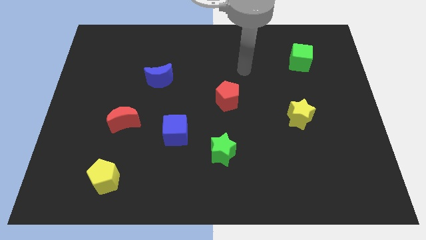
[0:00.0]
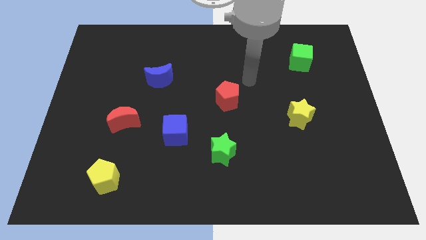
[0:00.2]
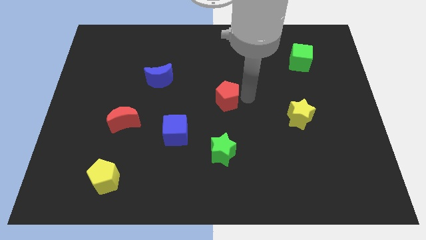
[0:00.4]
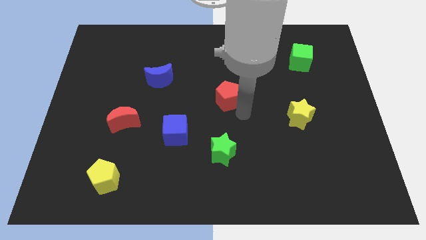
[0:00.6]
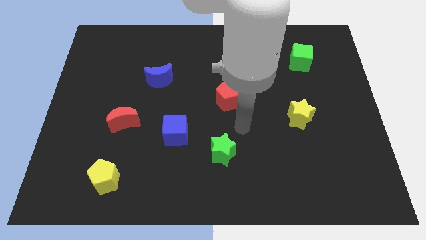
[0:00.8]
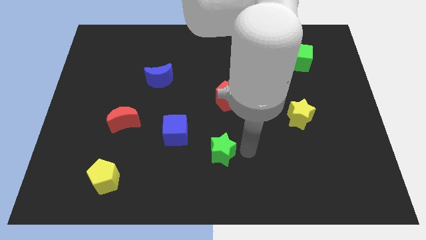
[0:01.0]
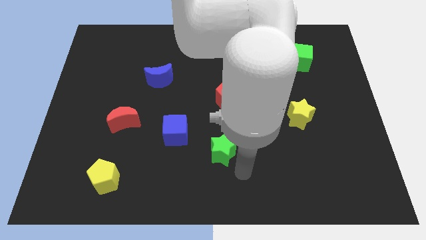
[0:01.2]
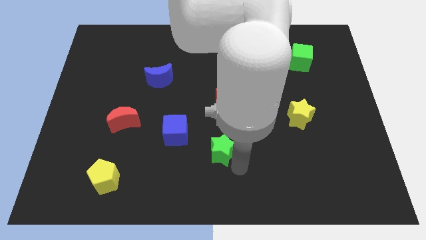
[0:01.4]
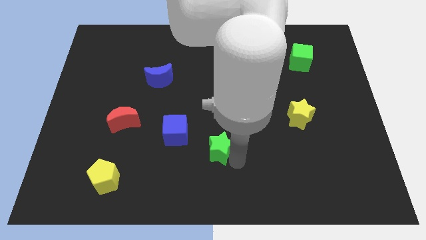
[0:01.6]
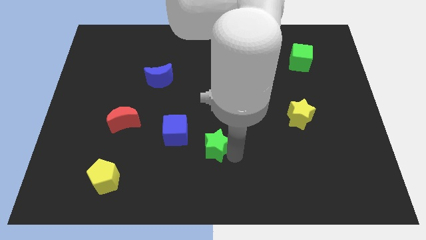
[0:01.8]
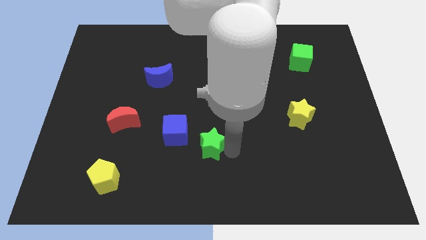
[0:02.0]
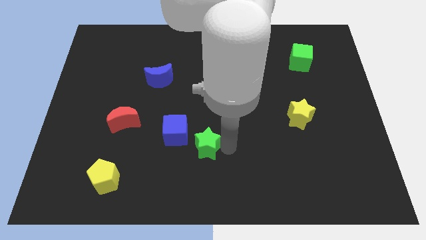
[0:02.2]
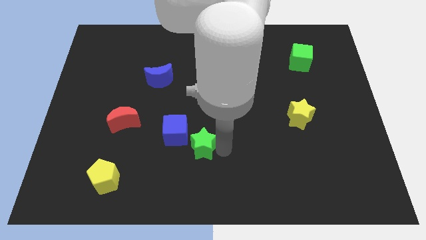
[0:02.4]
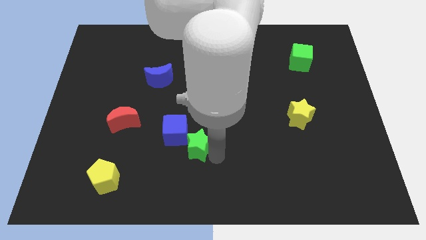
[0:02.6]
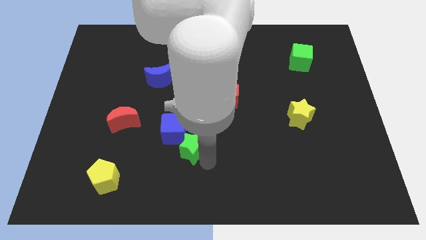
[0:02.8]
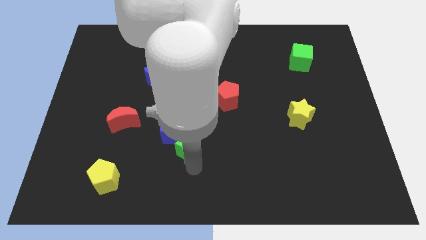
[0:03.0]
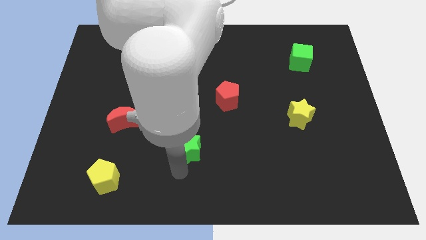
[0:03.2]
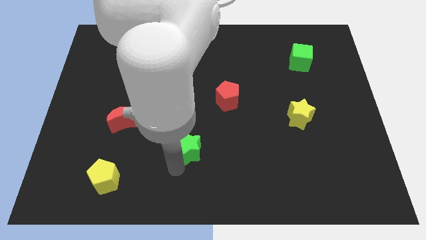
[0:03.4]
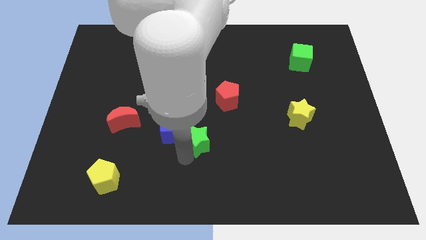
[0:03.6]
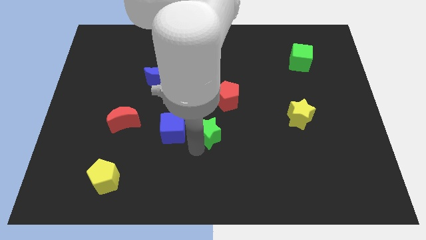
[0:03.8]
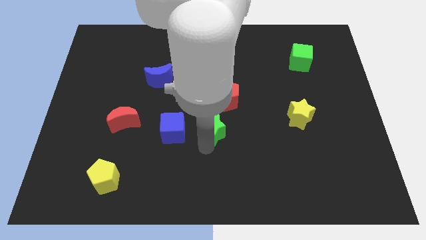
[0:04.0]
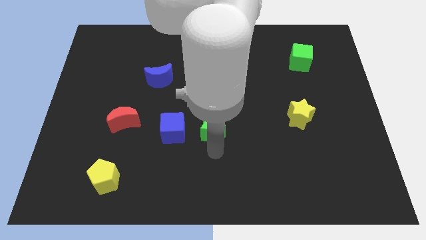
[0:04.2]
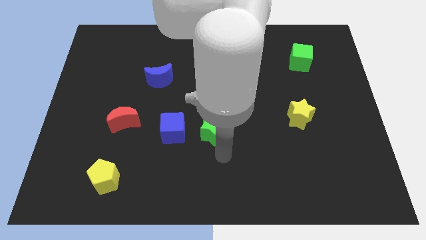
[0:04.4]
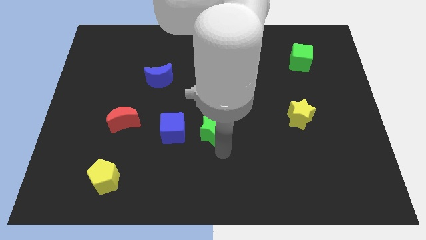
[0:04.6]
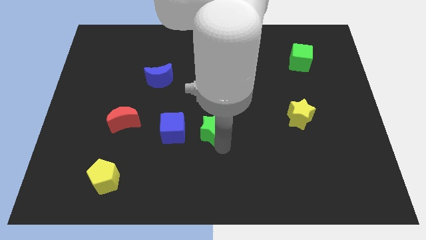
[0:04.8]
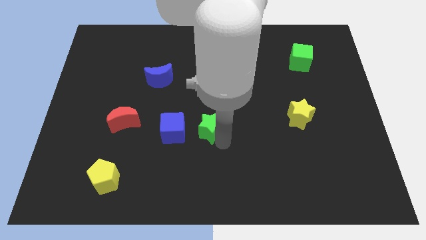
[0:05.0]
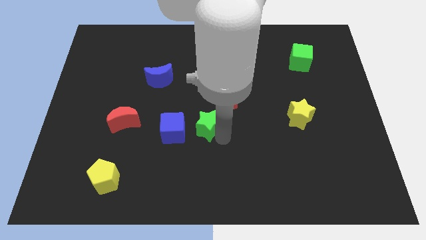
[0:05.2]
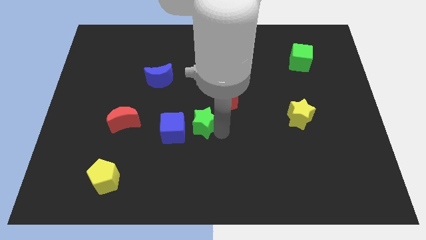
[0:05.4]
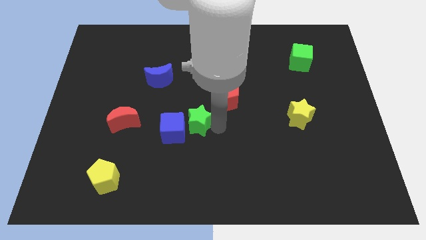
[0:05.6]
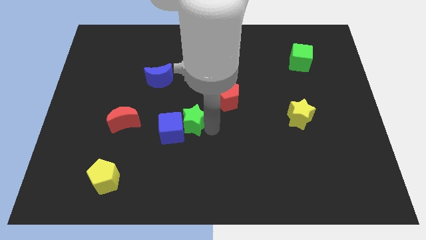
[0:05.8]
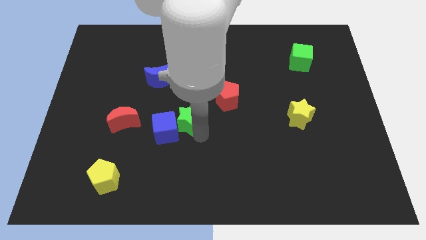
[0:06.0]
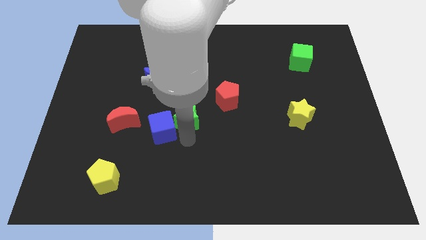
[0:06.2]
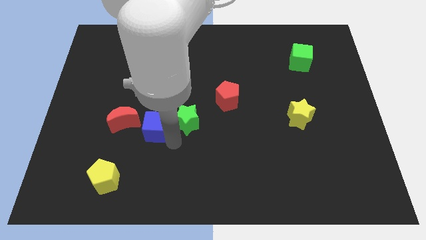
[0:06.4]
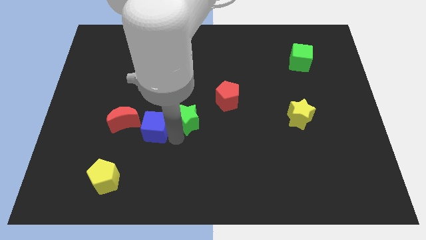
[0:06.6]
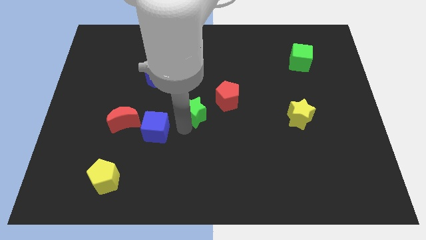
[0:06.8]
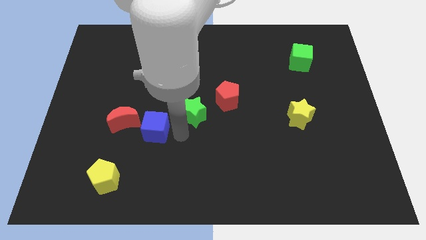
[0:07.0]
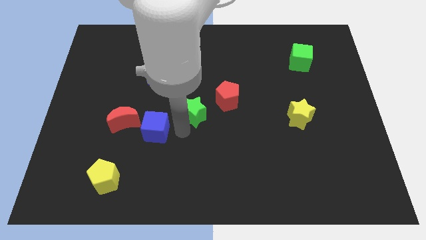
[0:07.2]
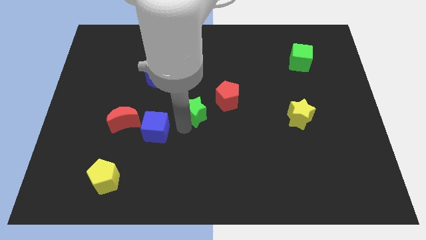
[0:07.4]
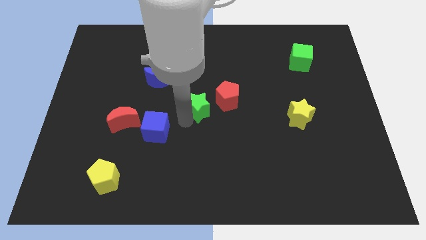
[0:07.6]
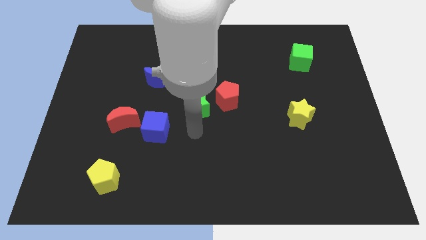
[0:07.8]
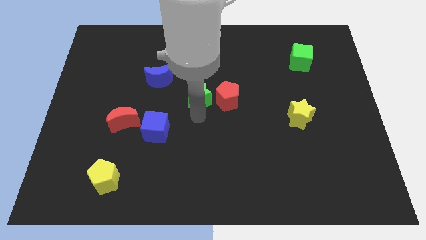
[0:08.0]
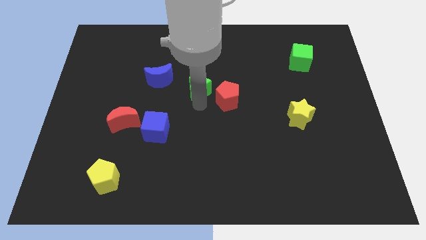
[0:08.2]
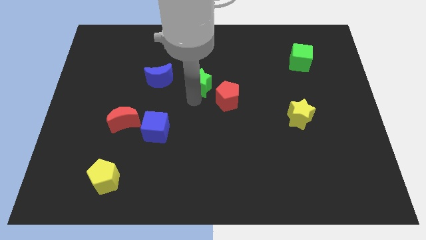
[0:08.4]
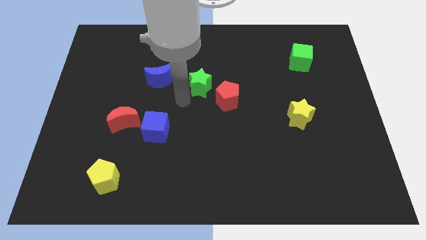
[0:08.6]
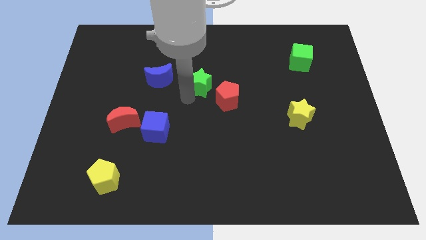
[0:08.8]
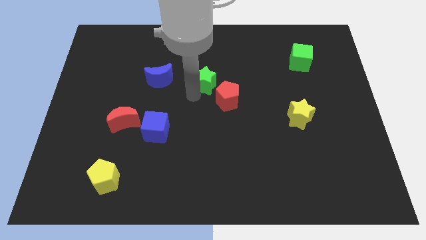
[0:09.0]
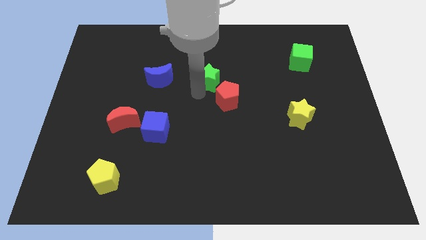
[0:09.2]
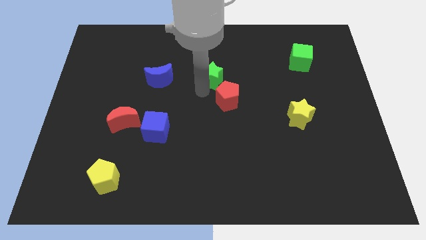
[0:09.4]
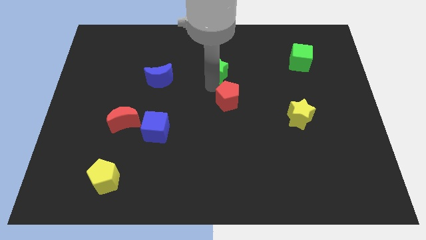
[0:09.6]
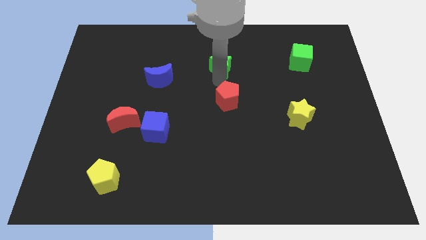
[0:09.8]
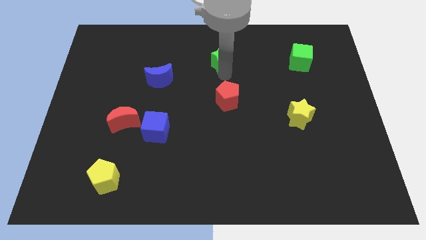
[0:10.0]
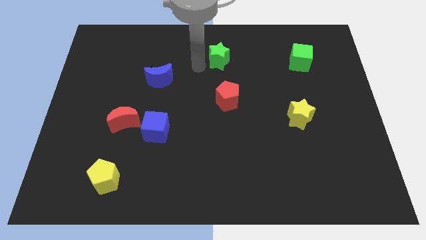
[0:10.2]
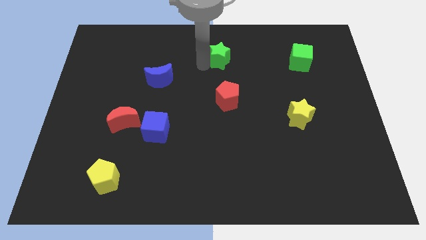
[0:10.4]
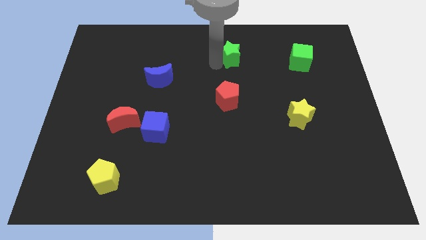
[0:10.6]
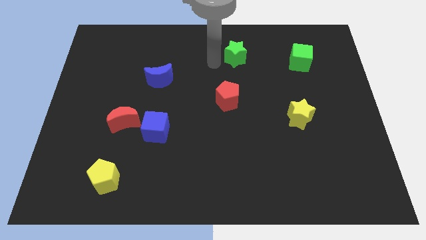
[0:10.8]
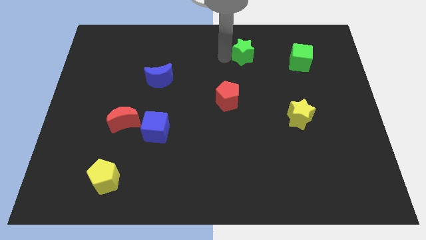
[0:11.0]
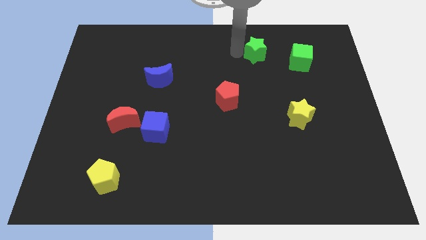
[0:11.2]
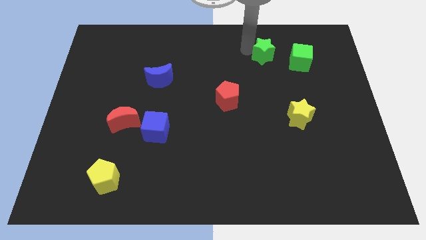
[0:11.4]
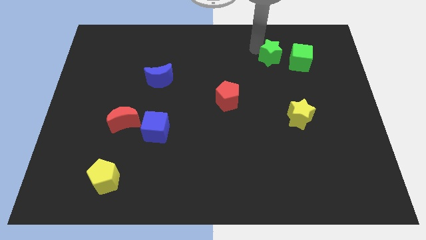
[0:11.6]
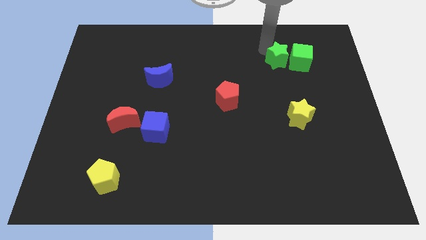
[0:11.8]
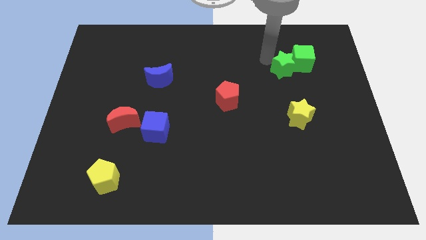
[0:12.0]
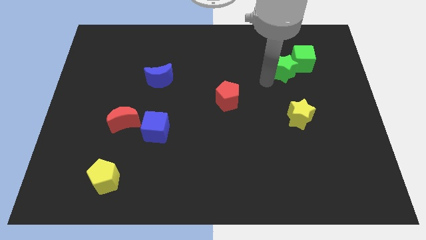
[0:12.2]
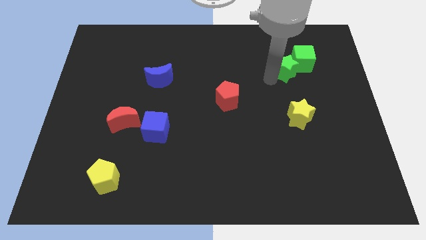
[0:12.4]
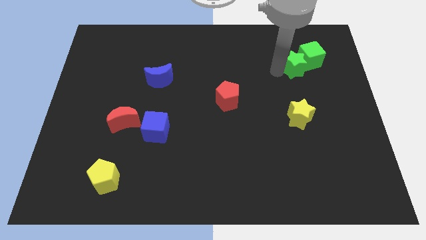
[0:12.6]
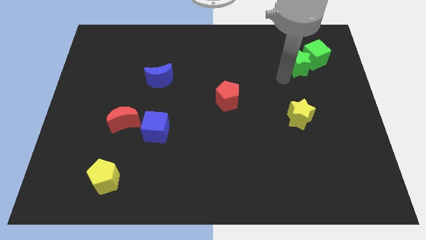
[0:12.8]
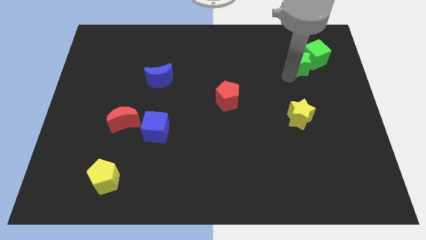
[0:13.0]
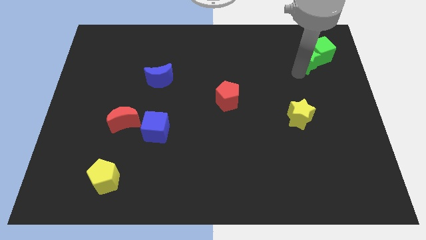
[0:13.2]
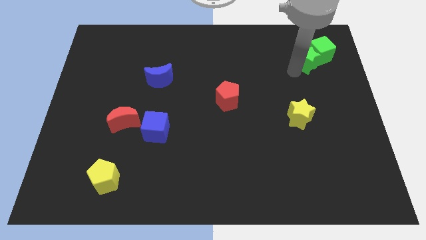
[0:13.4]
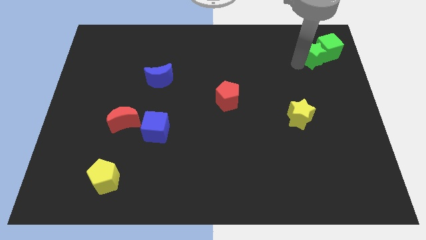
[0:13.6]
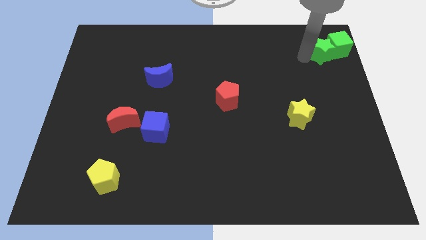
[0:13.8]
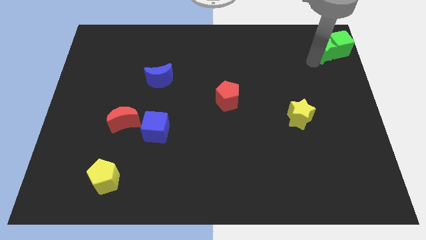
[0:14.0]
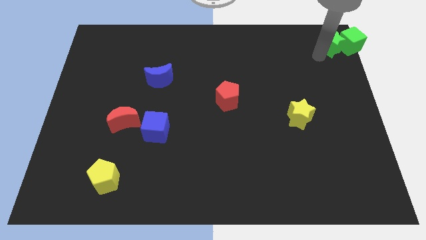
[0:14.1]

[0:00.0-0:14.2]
put the green star to the upper right corner
